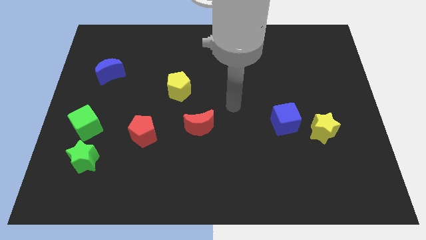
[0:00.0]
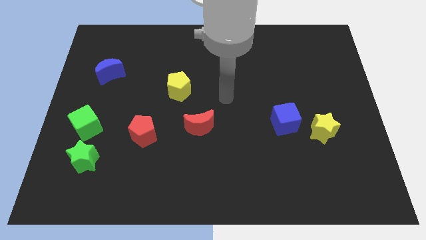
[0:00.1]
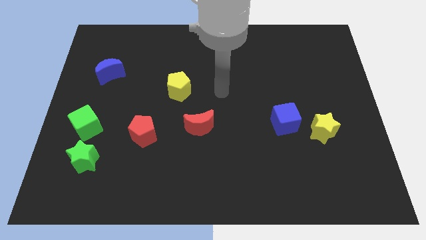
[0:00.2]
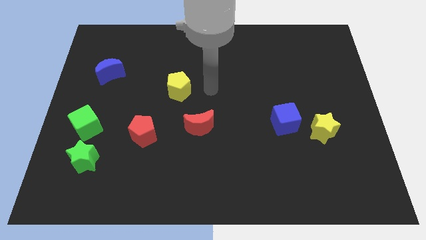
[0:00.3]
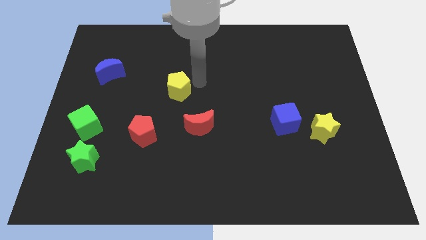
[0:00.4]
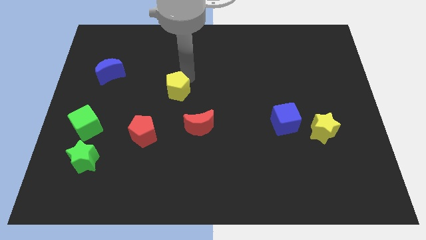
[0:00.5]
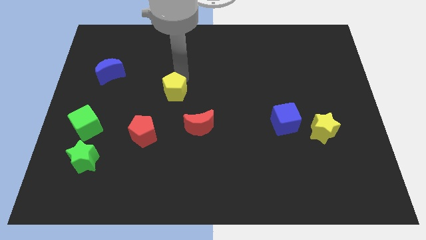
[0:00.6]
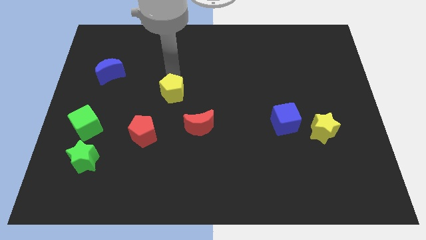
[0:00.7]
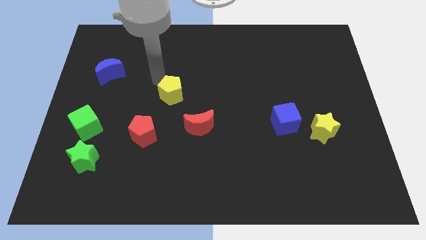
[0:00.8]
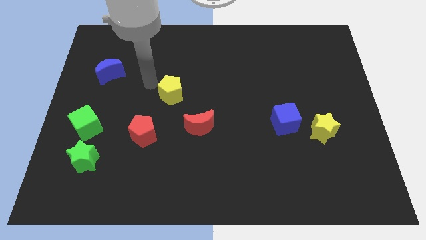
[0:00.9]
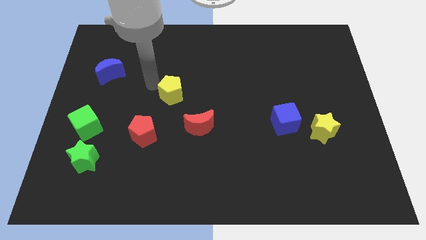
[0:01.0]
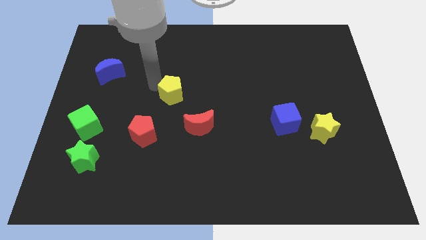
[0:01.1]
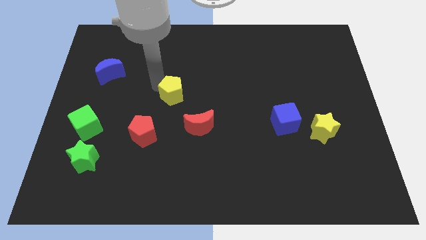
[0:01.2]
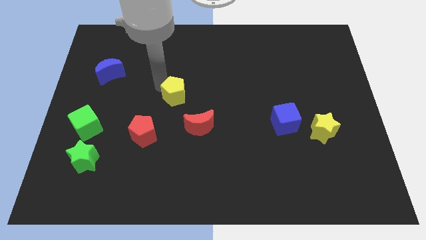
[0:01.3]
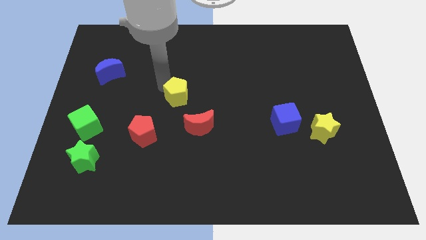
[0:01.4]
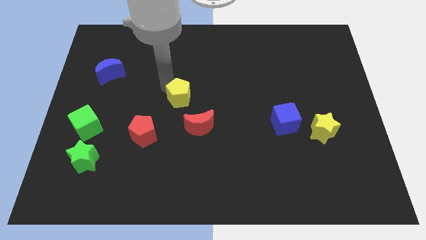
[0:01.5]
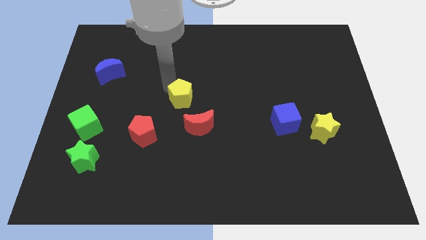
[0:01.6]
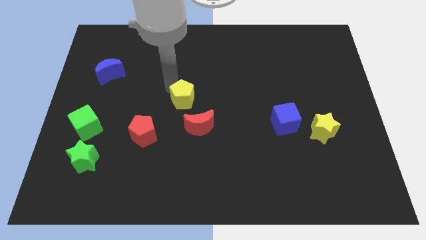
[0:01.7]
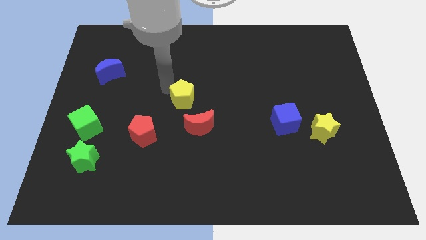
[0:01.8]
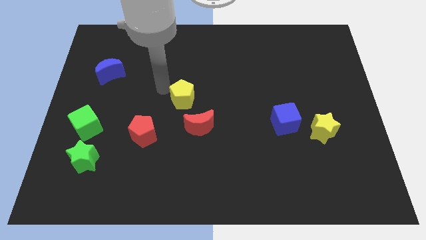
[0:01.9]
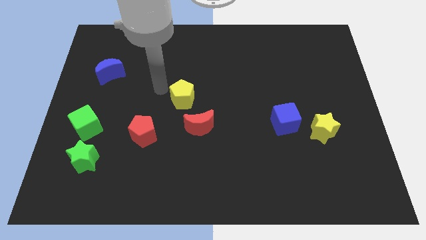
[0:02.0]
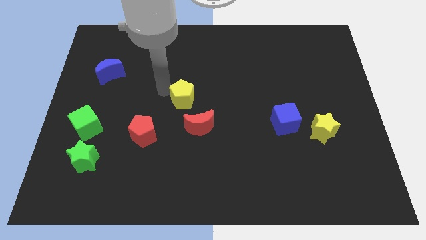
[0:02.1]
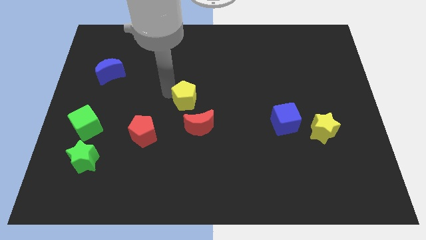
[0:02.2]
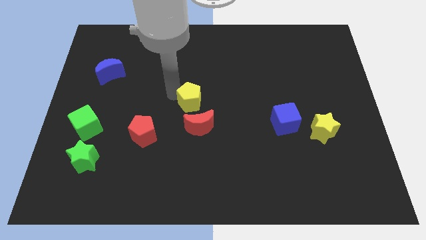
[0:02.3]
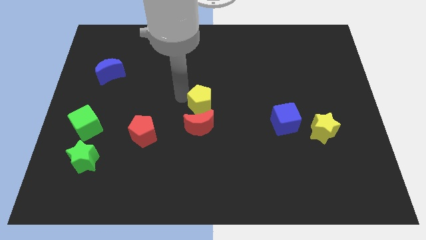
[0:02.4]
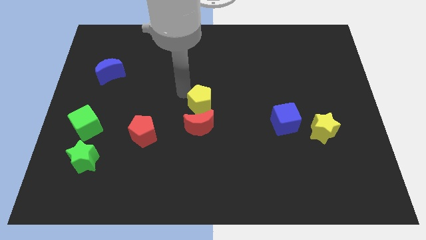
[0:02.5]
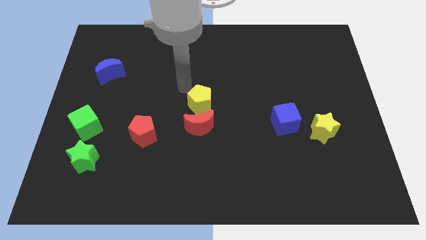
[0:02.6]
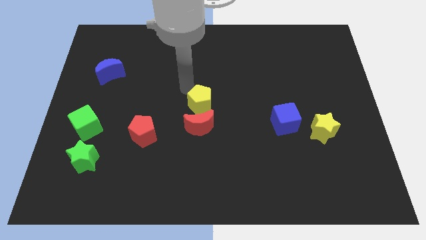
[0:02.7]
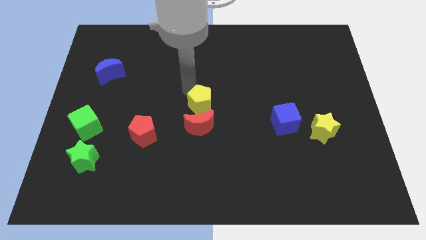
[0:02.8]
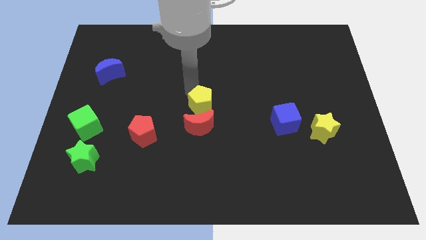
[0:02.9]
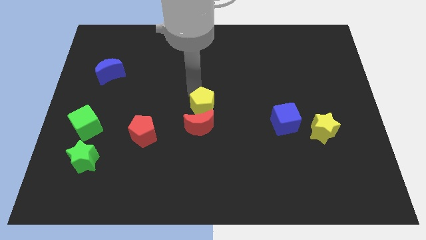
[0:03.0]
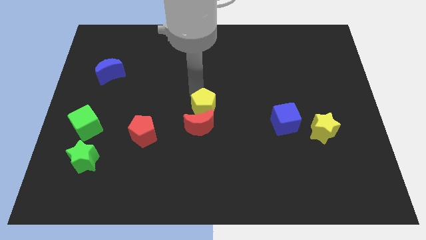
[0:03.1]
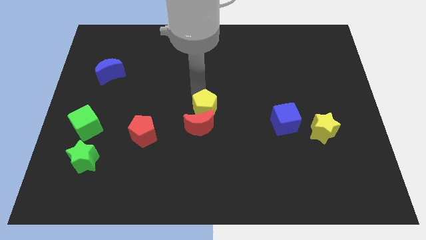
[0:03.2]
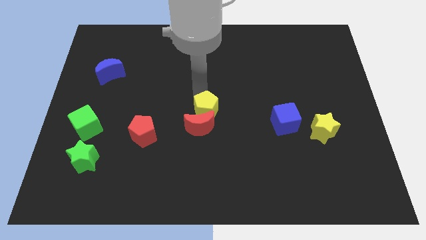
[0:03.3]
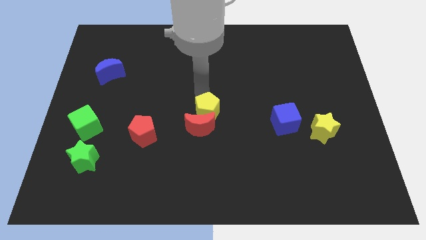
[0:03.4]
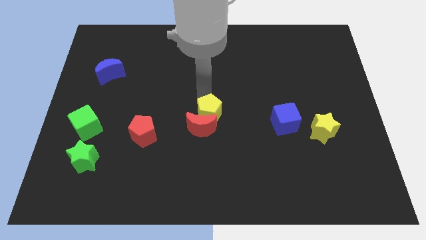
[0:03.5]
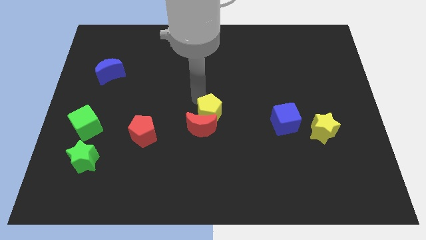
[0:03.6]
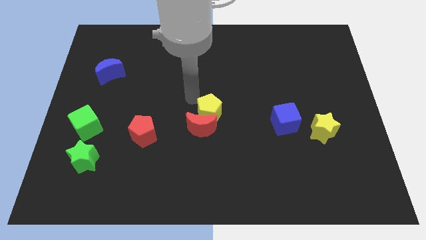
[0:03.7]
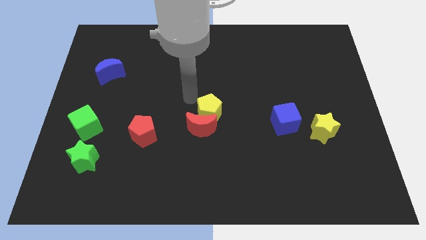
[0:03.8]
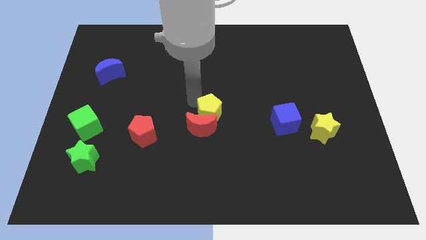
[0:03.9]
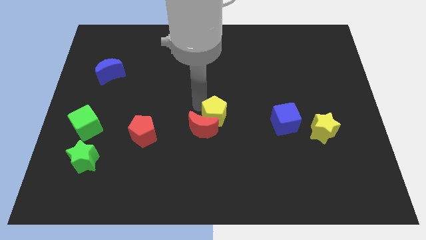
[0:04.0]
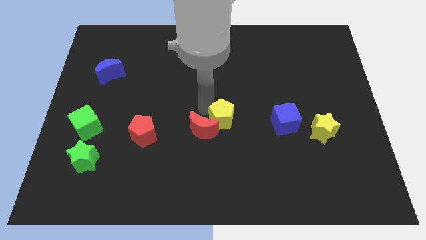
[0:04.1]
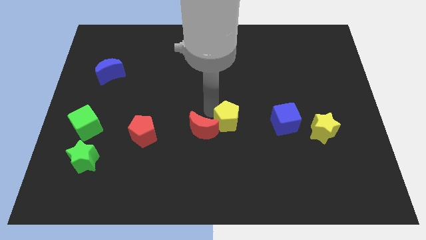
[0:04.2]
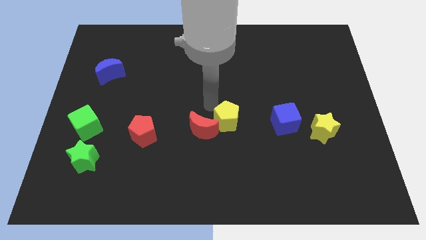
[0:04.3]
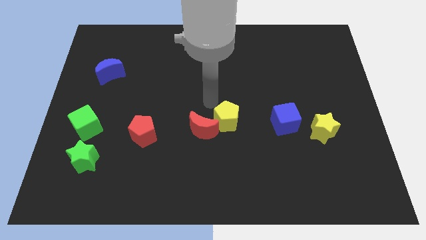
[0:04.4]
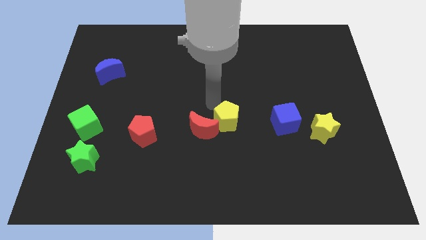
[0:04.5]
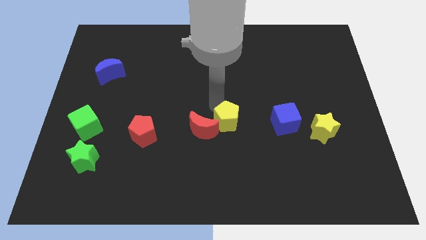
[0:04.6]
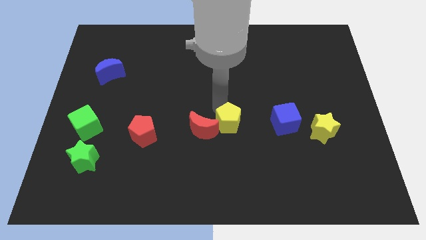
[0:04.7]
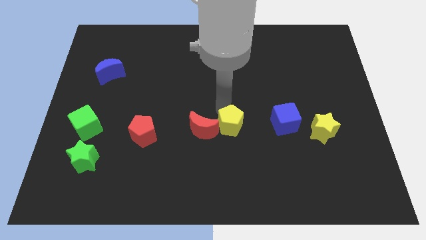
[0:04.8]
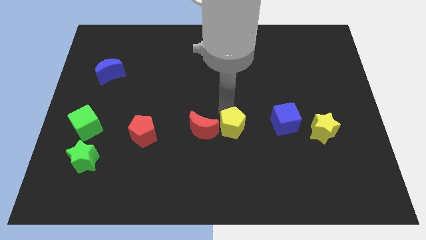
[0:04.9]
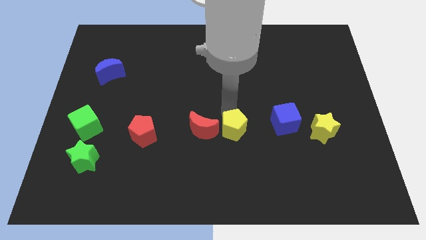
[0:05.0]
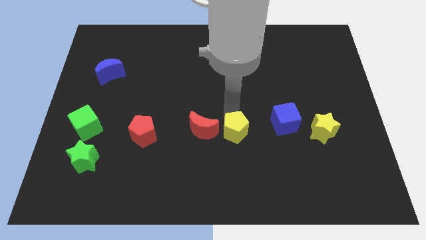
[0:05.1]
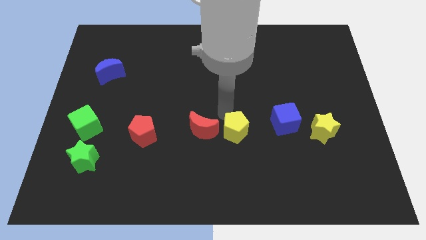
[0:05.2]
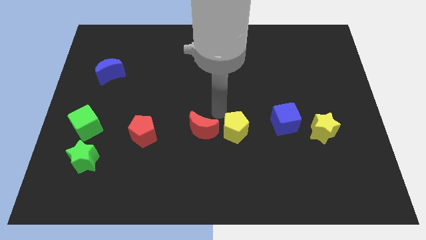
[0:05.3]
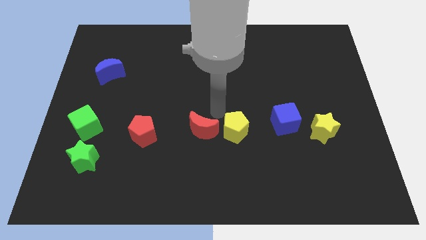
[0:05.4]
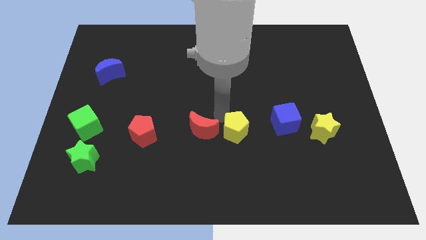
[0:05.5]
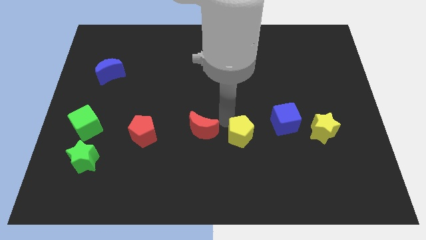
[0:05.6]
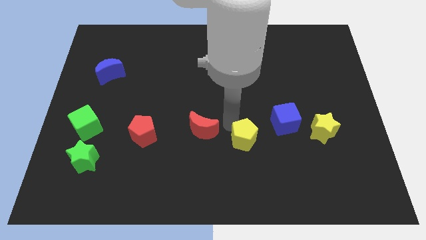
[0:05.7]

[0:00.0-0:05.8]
move the yellow pentagon down and right

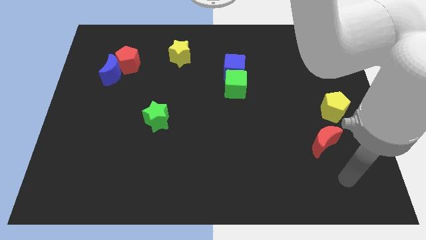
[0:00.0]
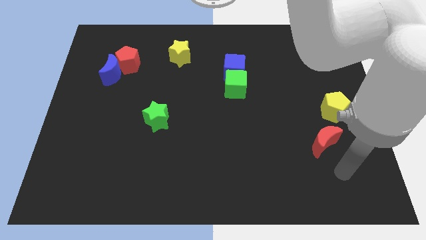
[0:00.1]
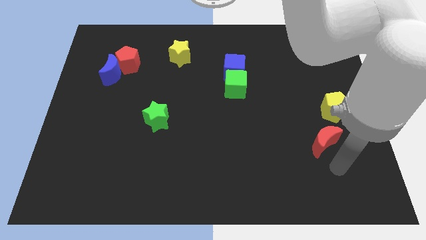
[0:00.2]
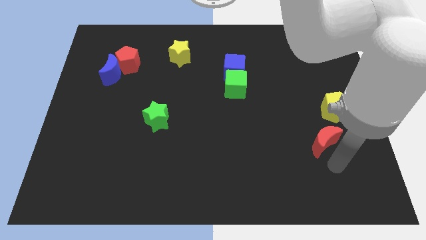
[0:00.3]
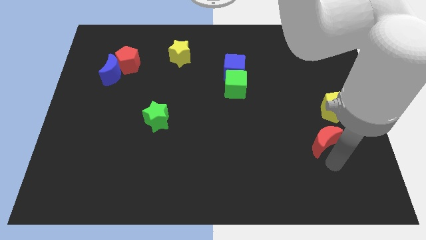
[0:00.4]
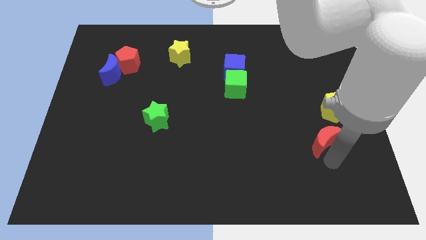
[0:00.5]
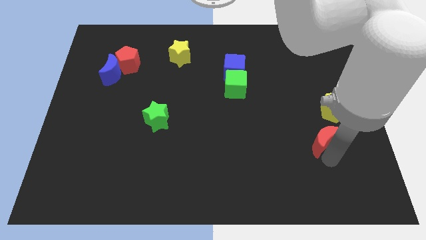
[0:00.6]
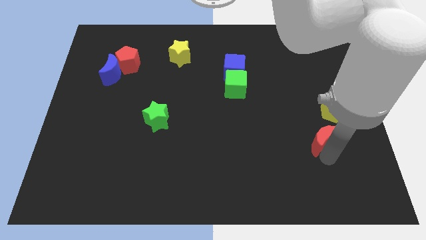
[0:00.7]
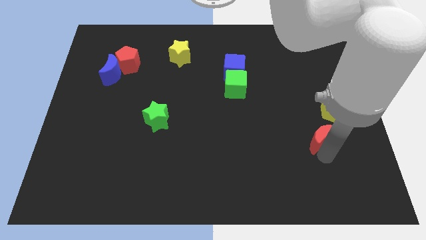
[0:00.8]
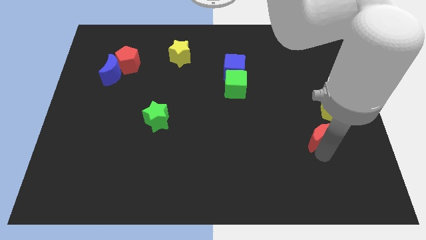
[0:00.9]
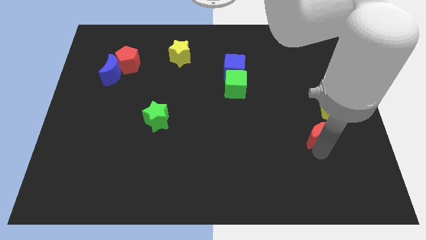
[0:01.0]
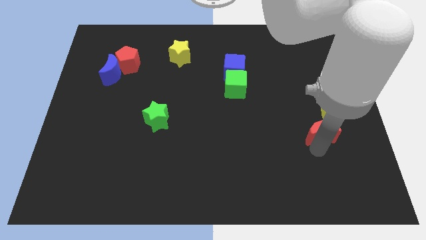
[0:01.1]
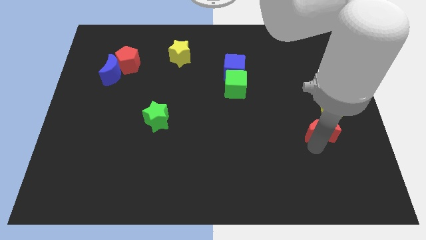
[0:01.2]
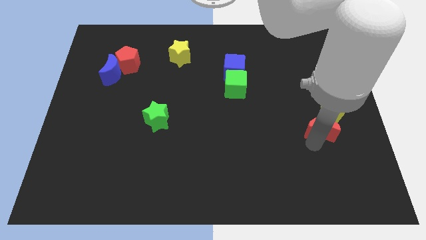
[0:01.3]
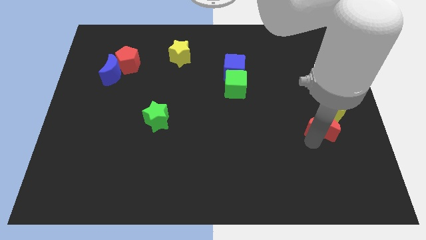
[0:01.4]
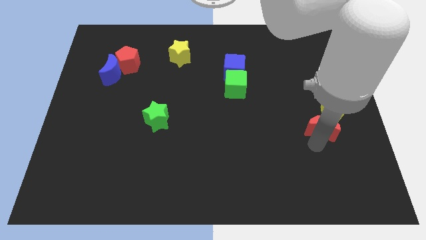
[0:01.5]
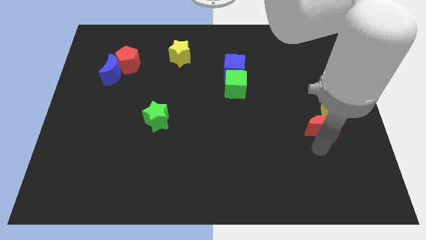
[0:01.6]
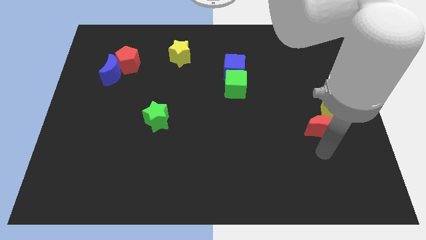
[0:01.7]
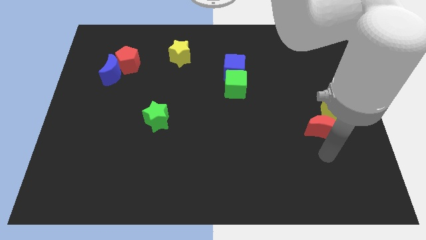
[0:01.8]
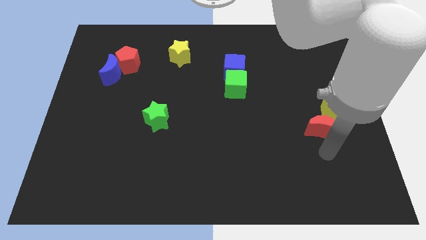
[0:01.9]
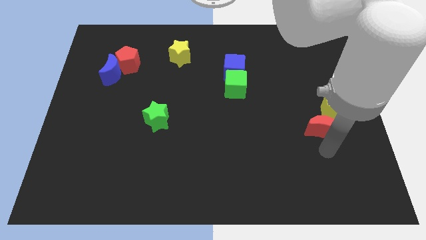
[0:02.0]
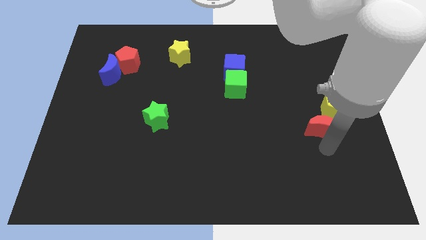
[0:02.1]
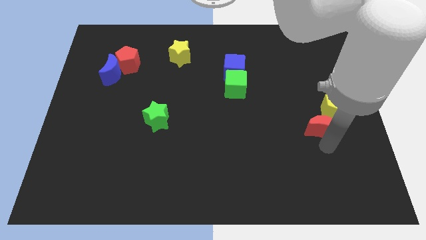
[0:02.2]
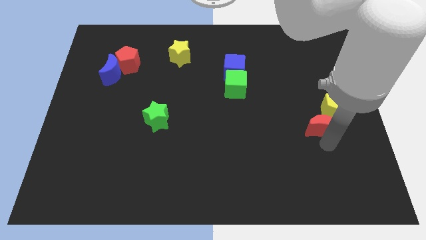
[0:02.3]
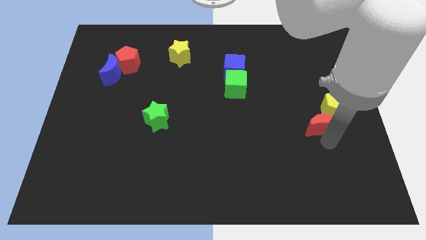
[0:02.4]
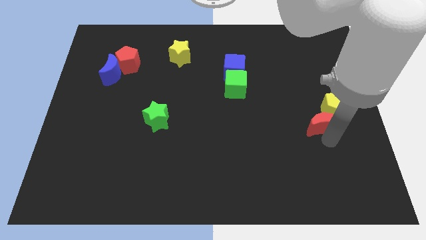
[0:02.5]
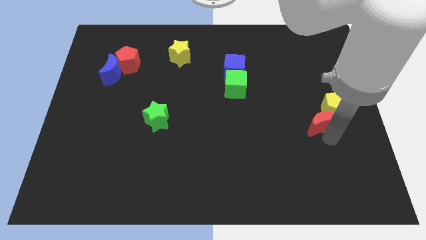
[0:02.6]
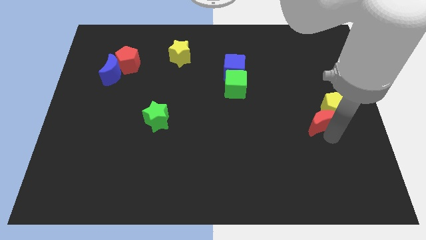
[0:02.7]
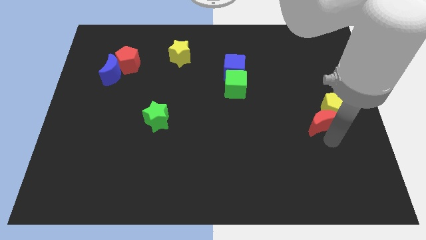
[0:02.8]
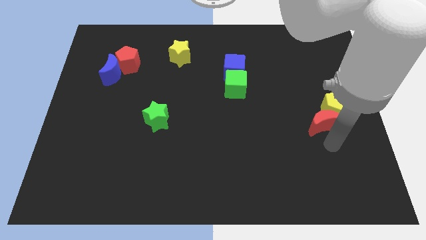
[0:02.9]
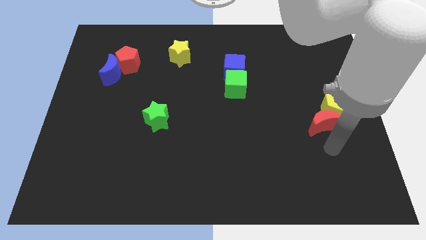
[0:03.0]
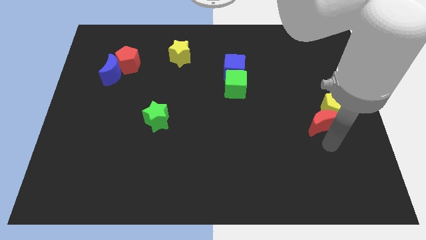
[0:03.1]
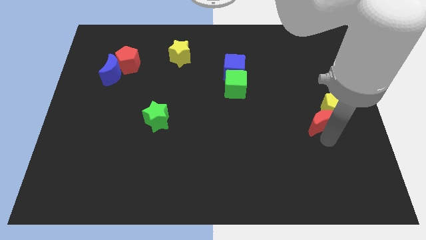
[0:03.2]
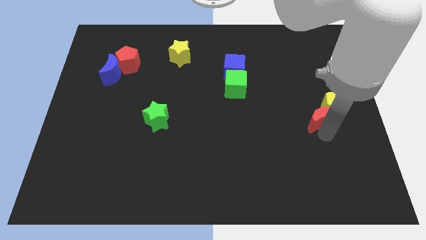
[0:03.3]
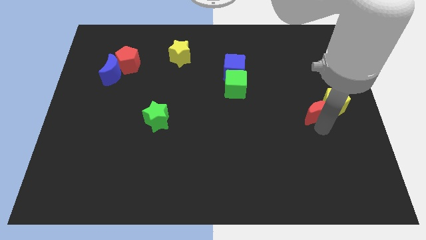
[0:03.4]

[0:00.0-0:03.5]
push the red moon somewhat up
